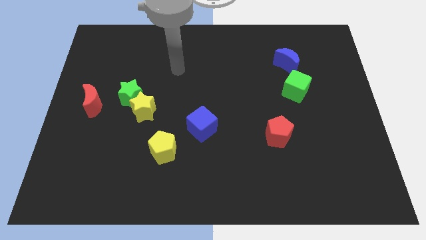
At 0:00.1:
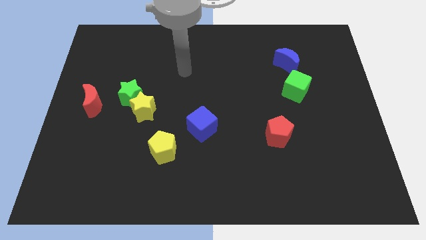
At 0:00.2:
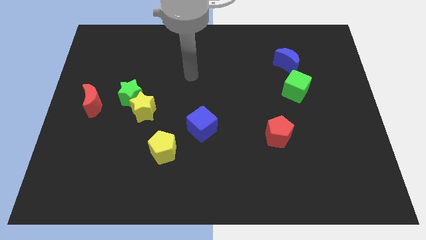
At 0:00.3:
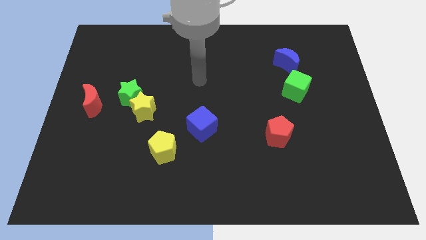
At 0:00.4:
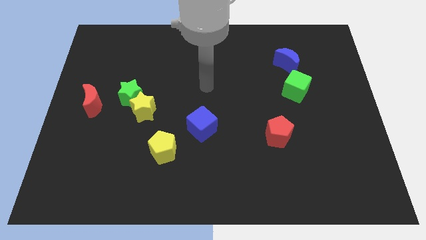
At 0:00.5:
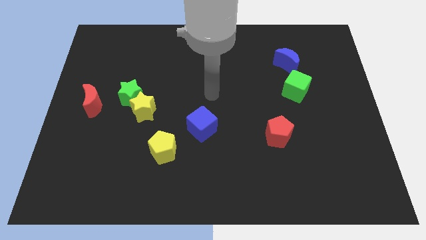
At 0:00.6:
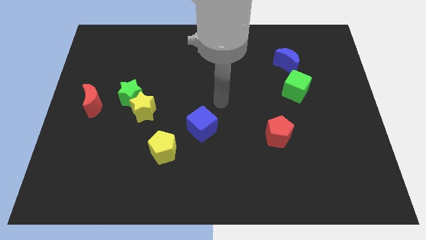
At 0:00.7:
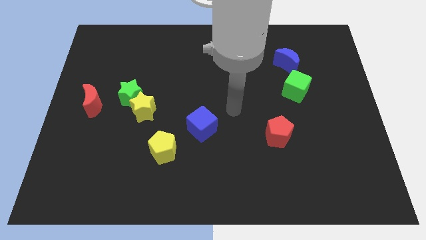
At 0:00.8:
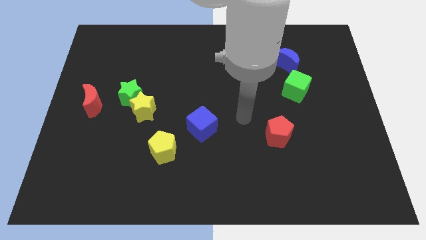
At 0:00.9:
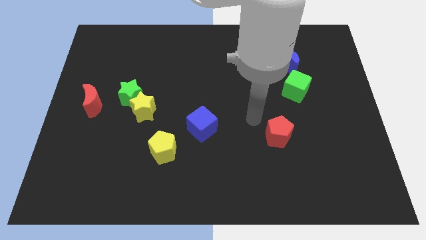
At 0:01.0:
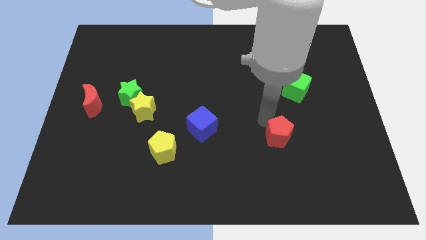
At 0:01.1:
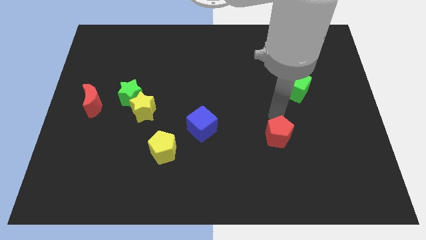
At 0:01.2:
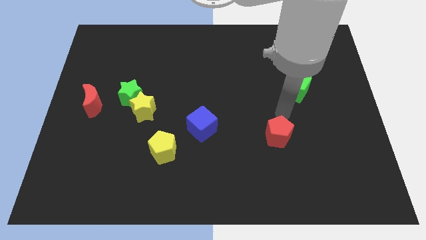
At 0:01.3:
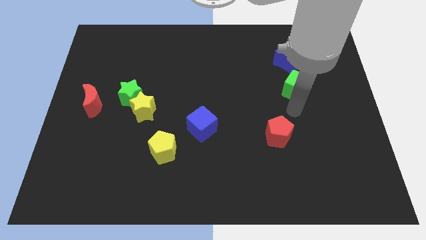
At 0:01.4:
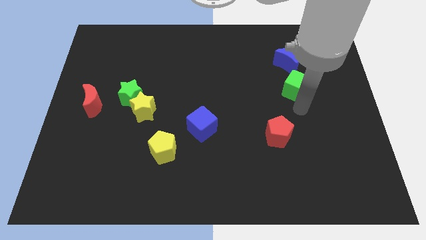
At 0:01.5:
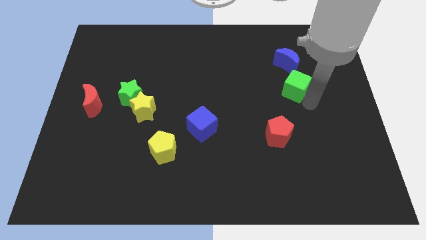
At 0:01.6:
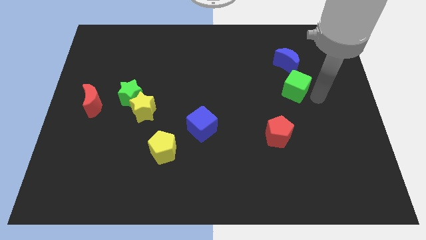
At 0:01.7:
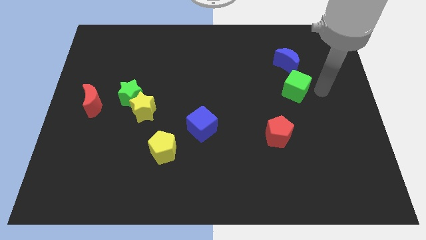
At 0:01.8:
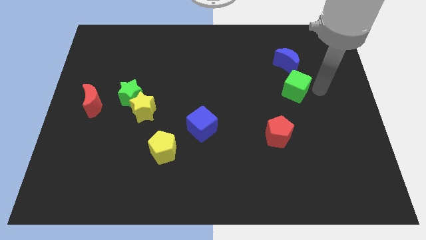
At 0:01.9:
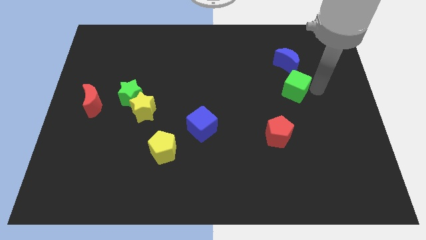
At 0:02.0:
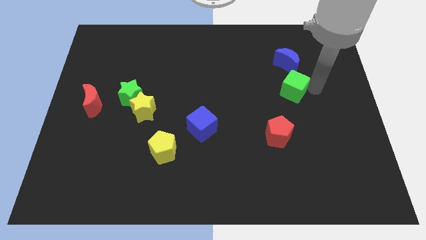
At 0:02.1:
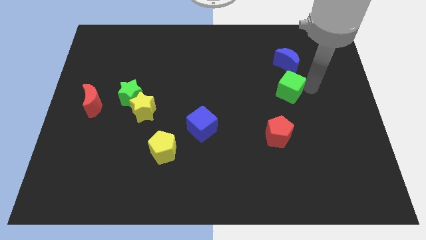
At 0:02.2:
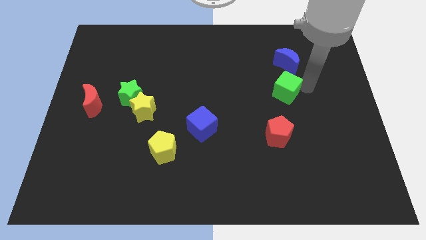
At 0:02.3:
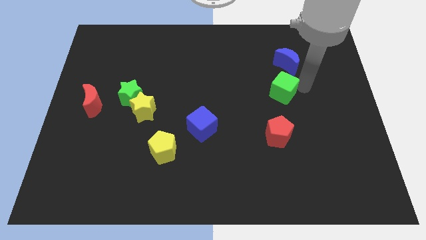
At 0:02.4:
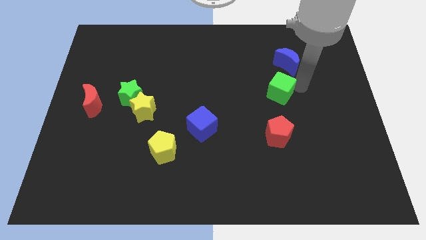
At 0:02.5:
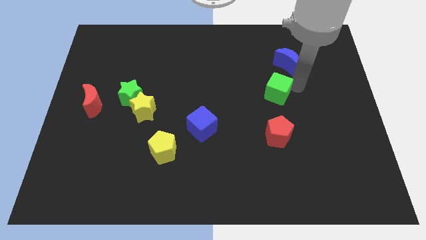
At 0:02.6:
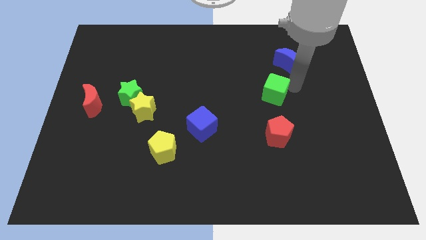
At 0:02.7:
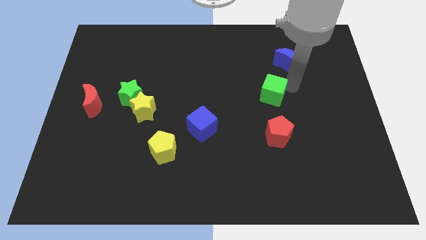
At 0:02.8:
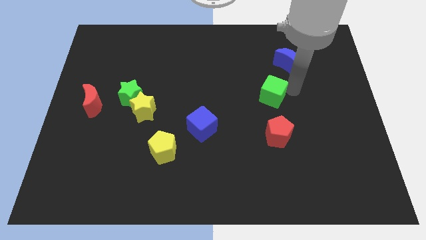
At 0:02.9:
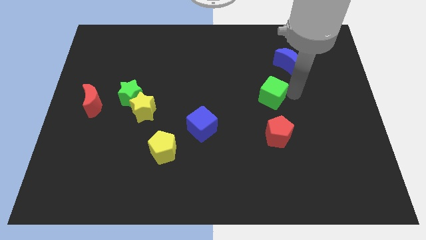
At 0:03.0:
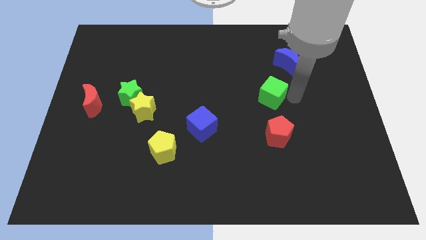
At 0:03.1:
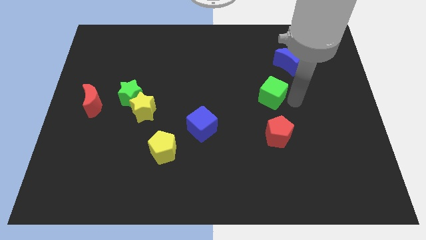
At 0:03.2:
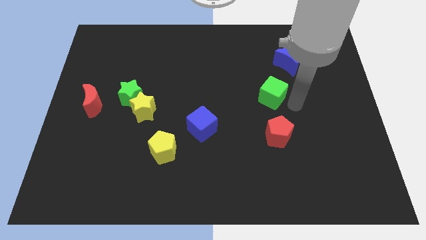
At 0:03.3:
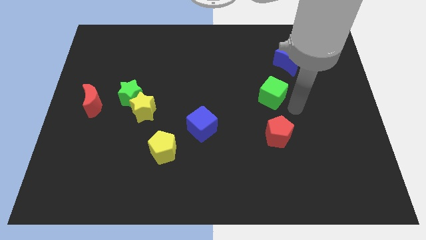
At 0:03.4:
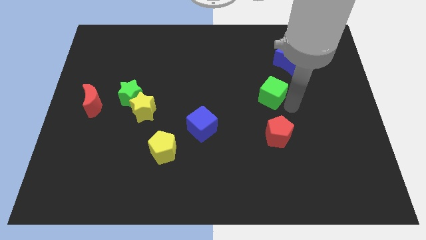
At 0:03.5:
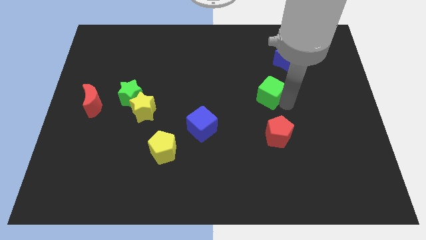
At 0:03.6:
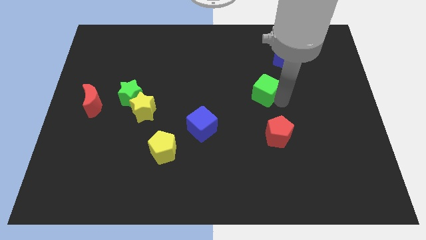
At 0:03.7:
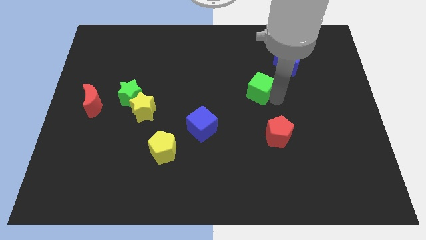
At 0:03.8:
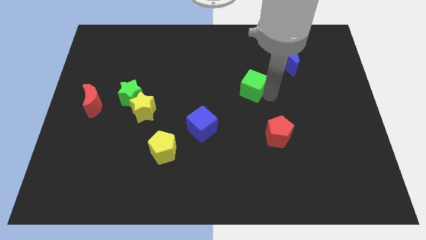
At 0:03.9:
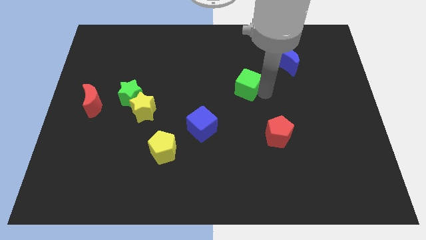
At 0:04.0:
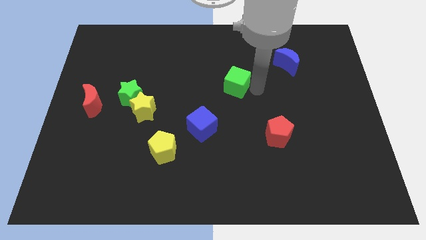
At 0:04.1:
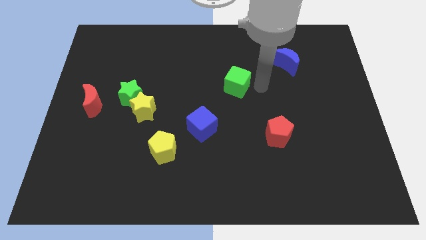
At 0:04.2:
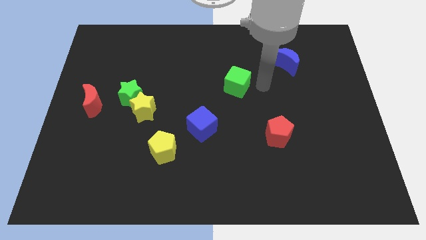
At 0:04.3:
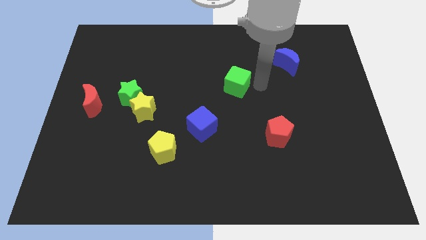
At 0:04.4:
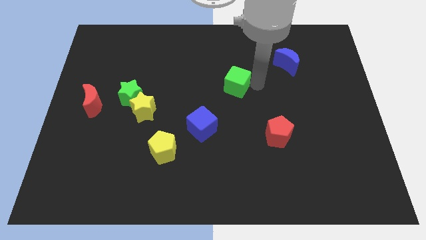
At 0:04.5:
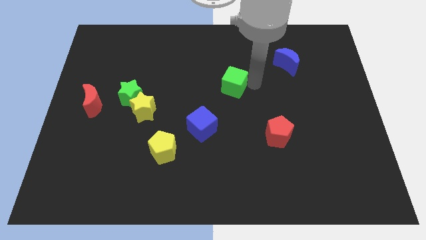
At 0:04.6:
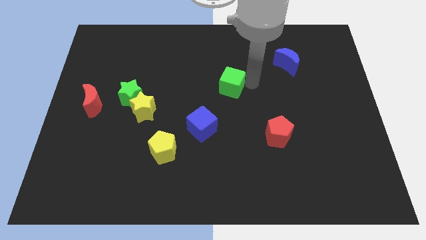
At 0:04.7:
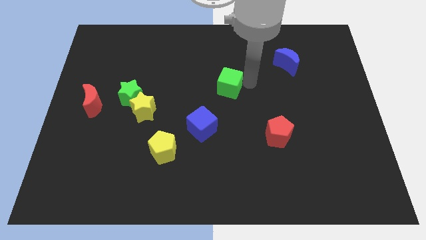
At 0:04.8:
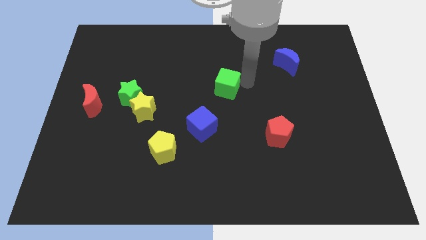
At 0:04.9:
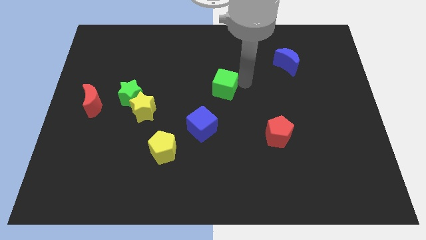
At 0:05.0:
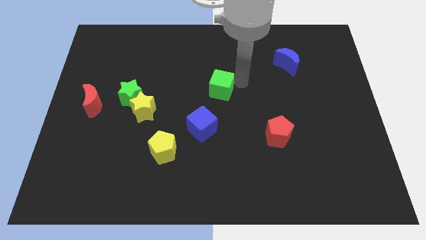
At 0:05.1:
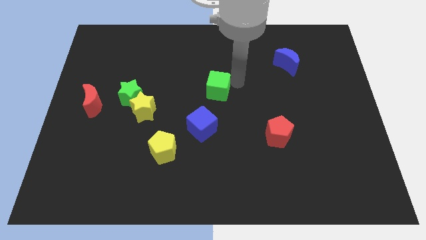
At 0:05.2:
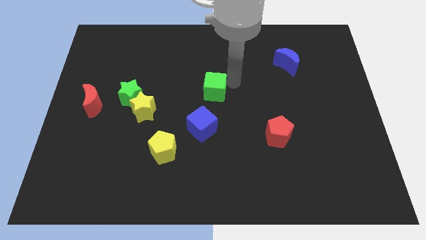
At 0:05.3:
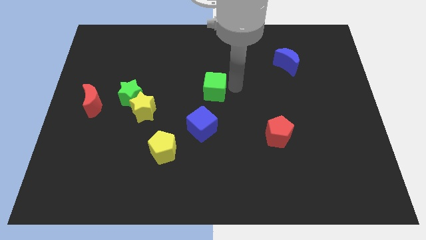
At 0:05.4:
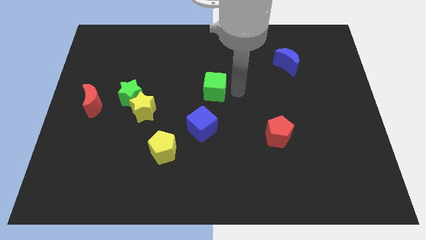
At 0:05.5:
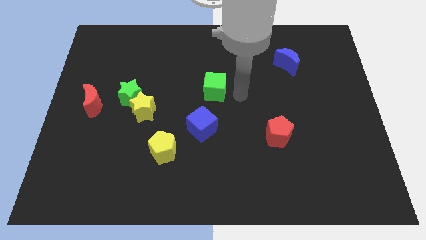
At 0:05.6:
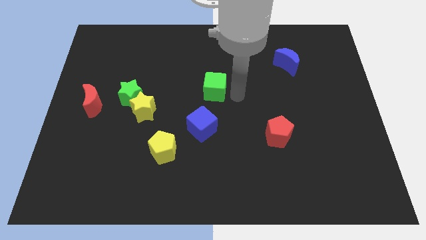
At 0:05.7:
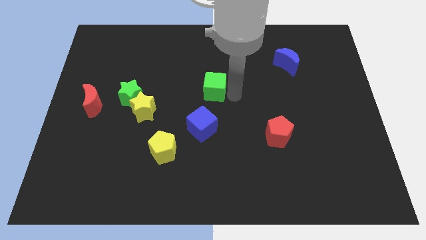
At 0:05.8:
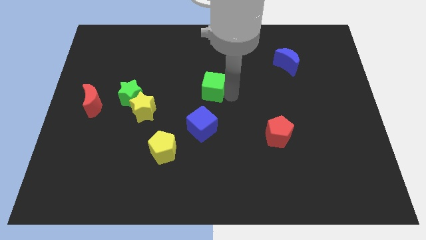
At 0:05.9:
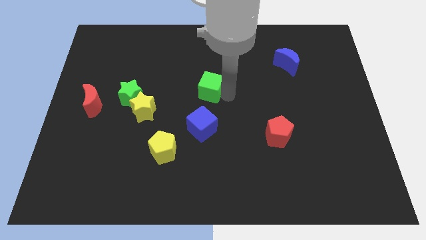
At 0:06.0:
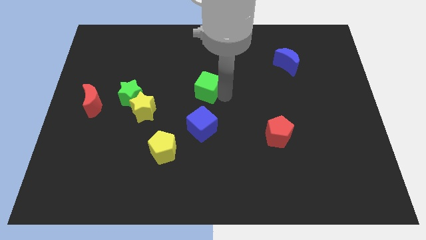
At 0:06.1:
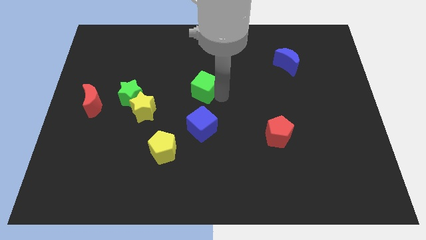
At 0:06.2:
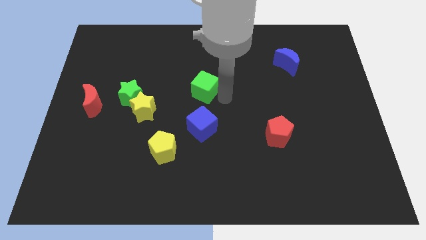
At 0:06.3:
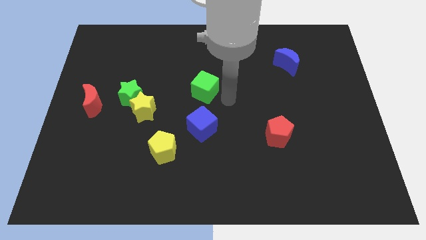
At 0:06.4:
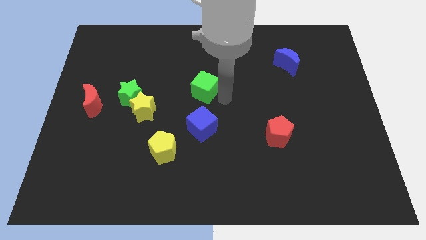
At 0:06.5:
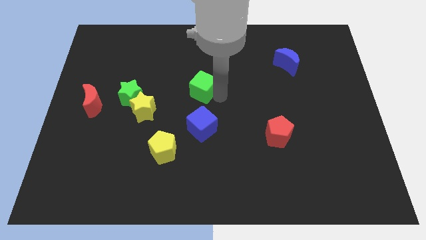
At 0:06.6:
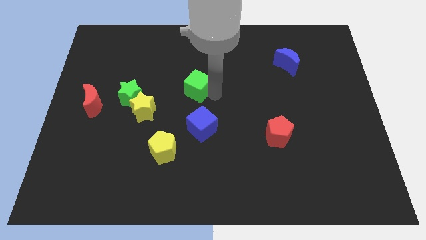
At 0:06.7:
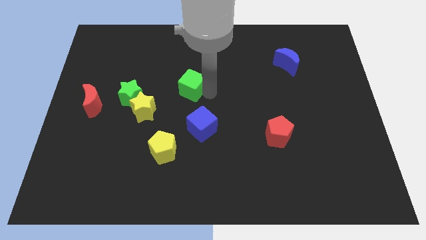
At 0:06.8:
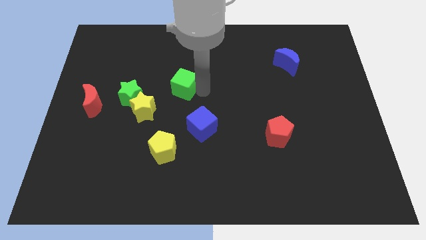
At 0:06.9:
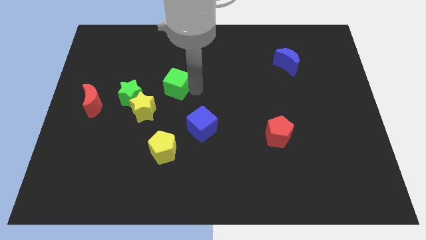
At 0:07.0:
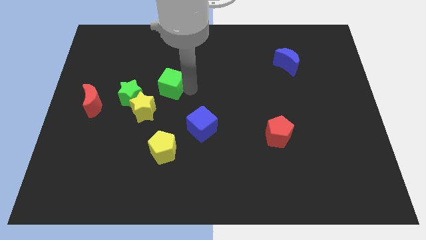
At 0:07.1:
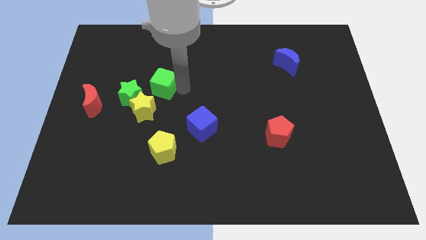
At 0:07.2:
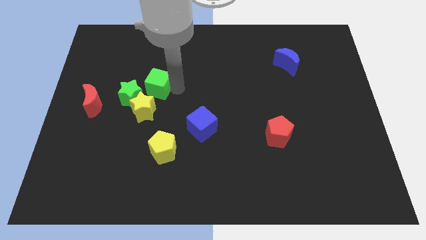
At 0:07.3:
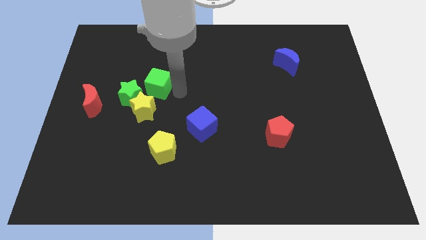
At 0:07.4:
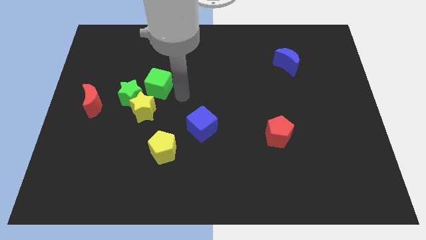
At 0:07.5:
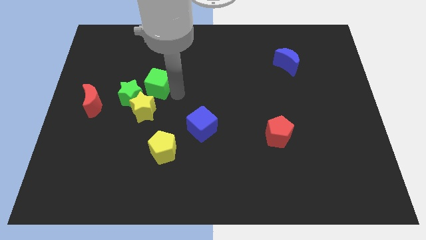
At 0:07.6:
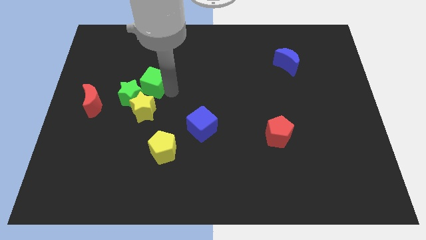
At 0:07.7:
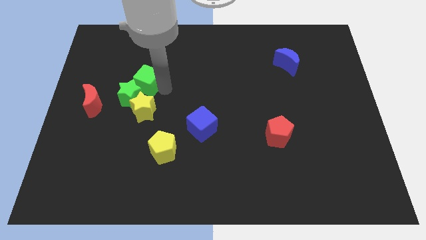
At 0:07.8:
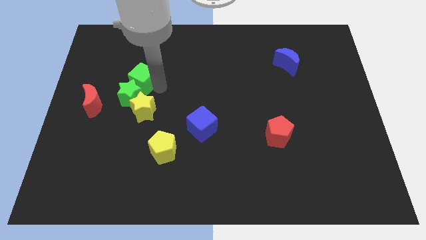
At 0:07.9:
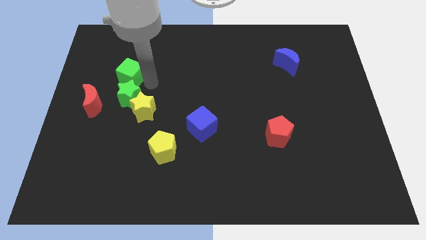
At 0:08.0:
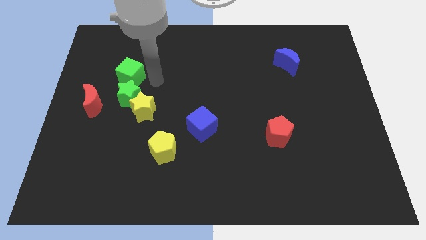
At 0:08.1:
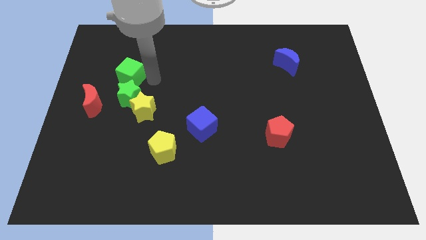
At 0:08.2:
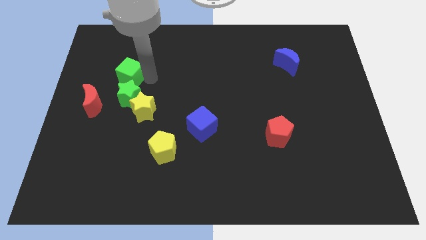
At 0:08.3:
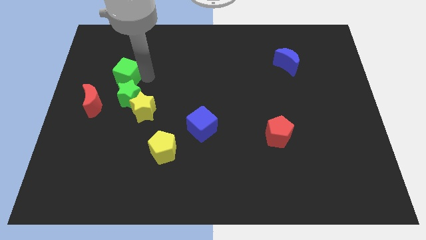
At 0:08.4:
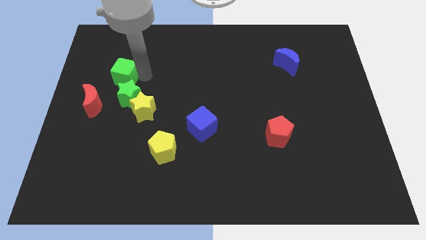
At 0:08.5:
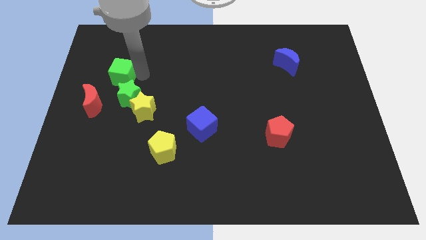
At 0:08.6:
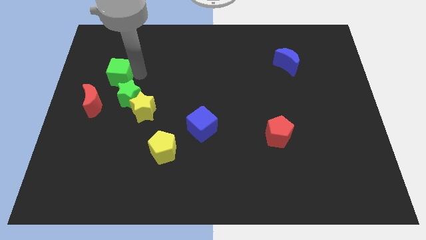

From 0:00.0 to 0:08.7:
push the green cube to the top of the red moon
